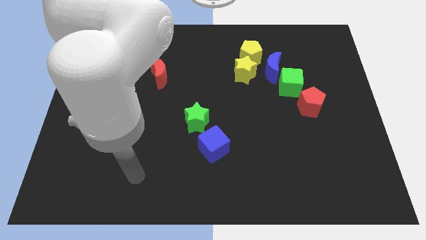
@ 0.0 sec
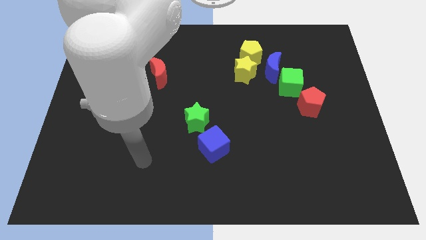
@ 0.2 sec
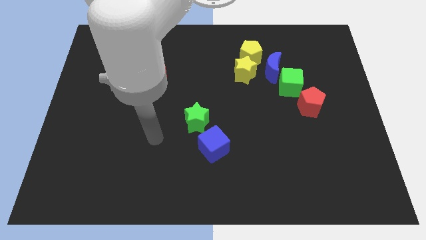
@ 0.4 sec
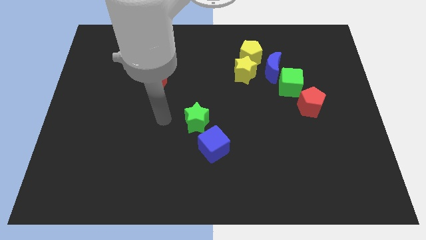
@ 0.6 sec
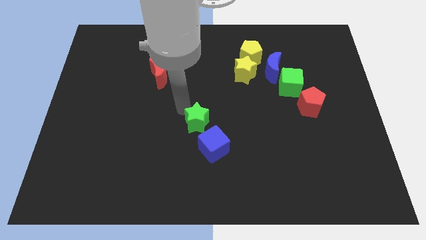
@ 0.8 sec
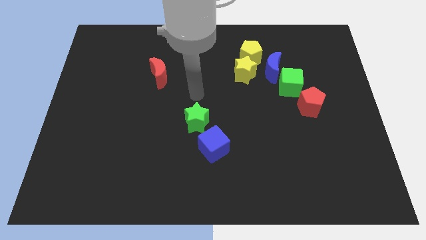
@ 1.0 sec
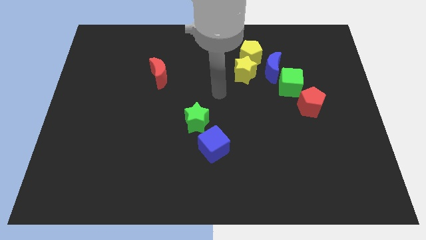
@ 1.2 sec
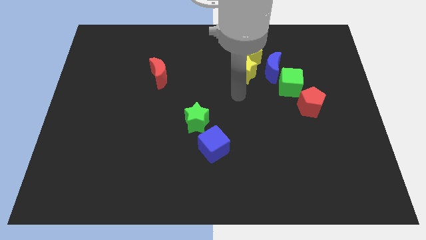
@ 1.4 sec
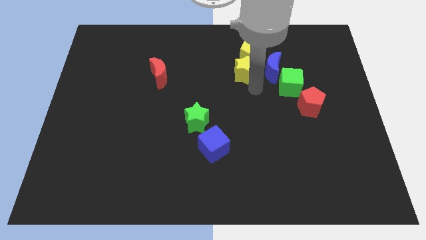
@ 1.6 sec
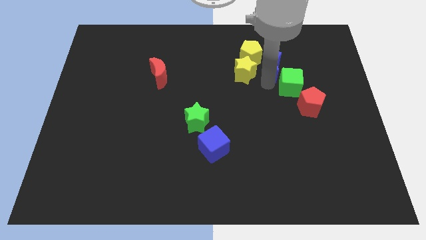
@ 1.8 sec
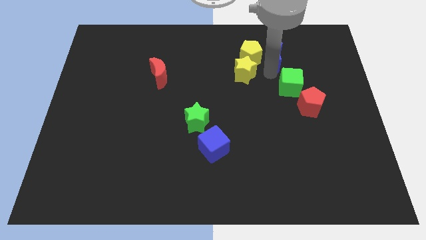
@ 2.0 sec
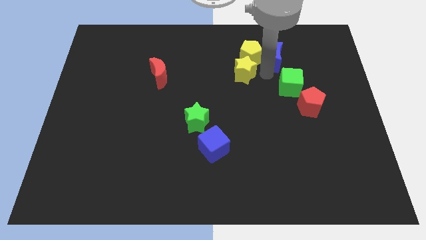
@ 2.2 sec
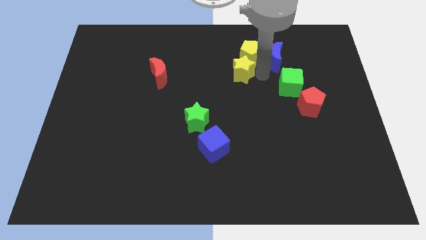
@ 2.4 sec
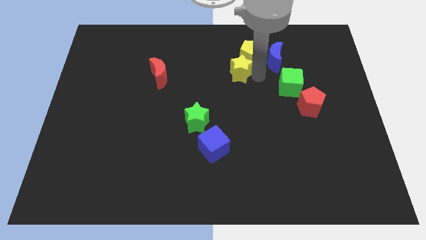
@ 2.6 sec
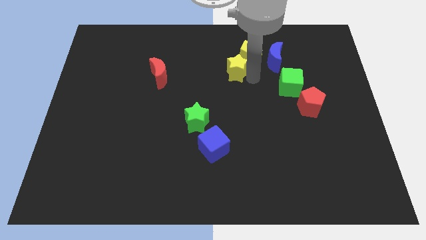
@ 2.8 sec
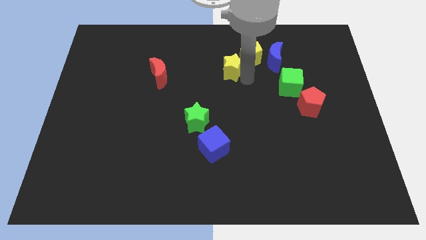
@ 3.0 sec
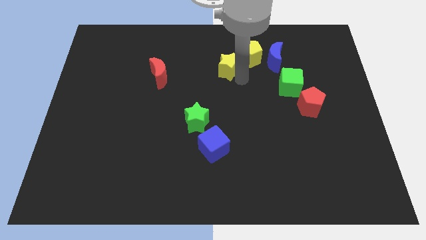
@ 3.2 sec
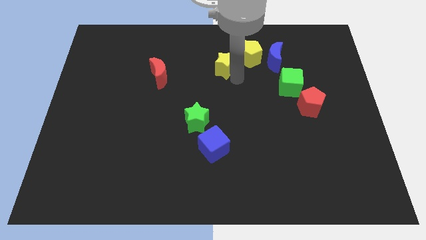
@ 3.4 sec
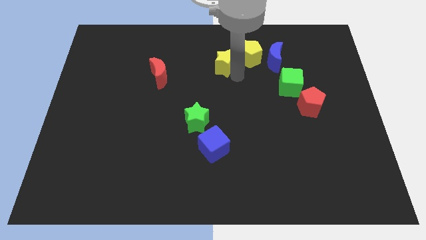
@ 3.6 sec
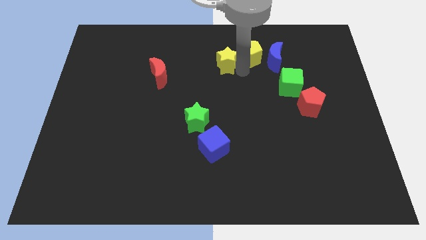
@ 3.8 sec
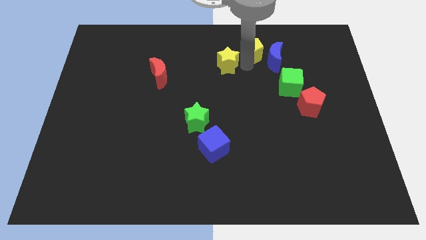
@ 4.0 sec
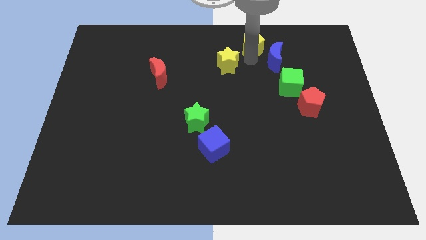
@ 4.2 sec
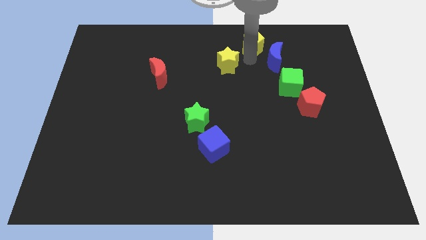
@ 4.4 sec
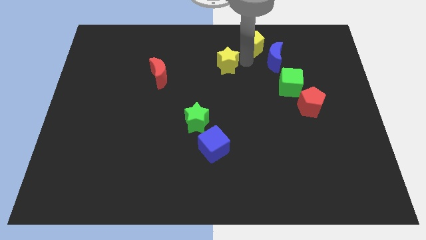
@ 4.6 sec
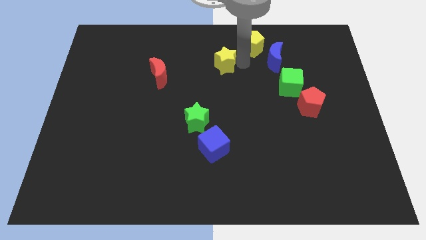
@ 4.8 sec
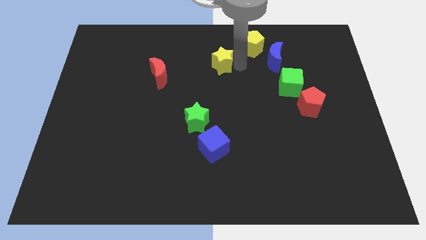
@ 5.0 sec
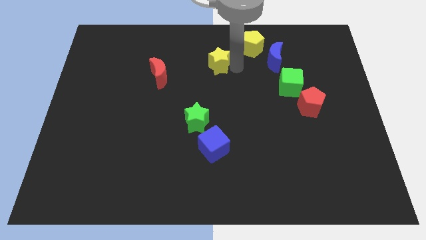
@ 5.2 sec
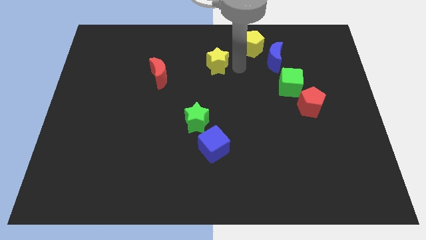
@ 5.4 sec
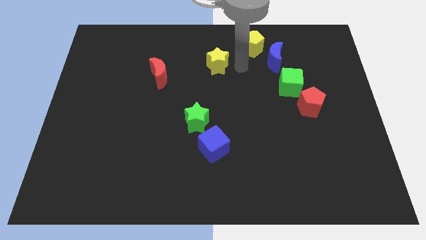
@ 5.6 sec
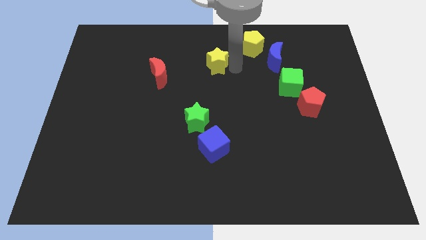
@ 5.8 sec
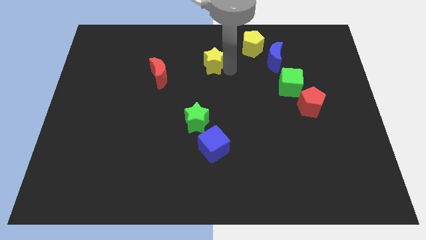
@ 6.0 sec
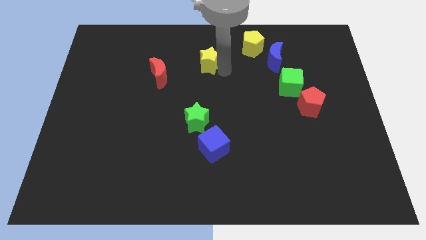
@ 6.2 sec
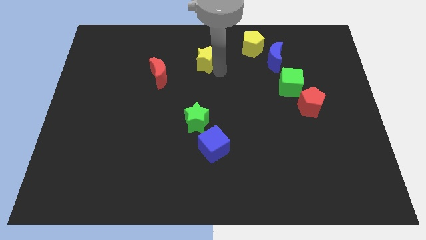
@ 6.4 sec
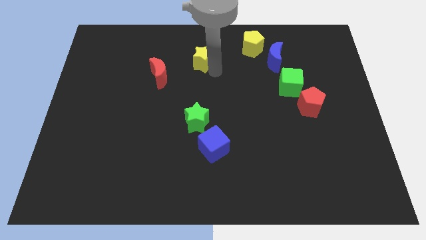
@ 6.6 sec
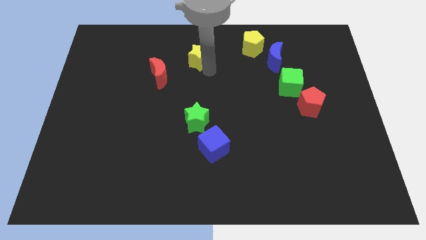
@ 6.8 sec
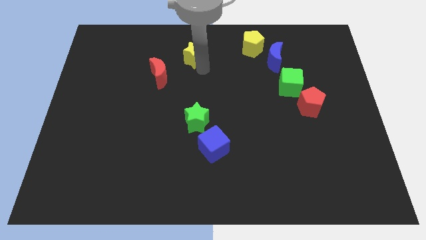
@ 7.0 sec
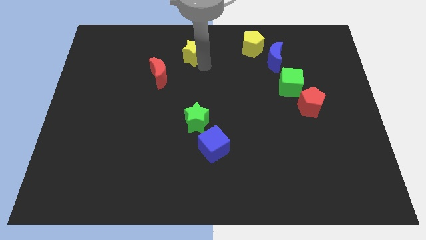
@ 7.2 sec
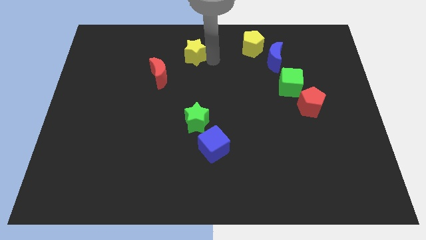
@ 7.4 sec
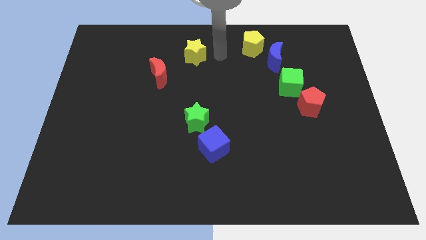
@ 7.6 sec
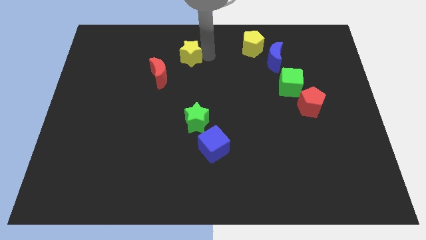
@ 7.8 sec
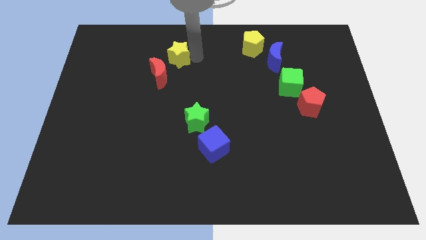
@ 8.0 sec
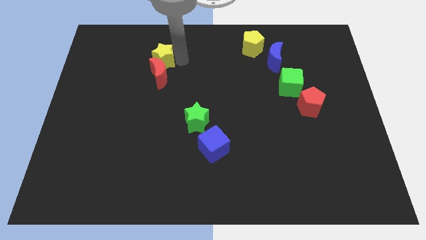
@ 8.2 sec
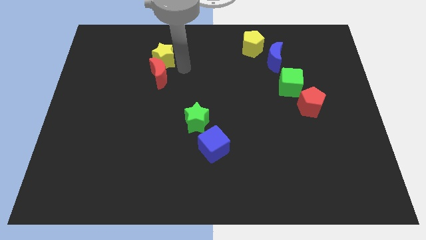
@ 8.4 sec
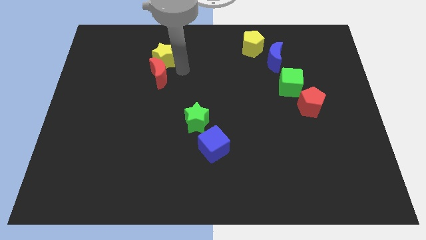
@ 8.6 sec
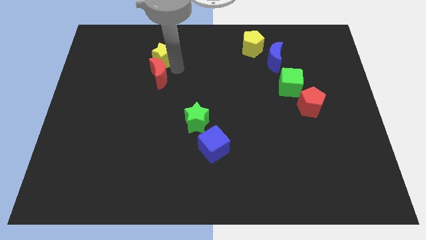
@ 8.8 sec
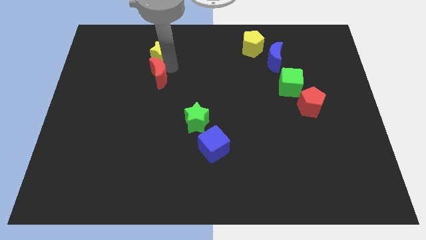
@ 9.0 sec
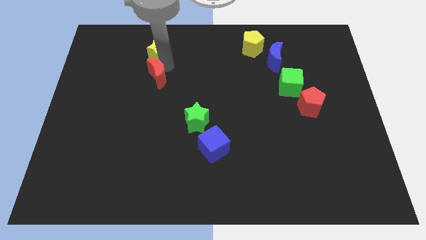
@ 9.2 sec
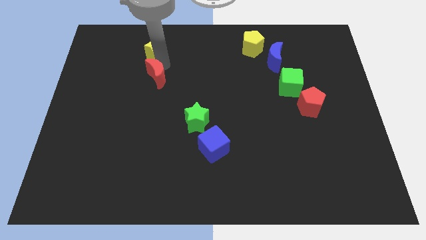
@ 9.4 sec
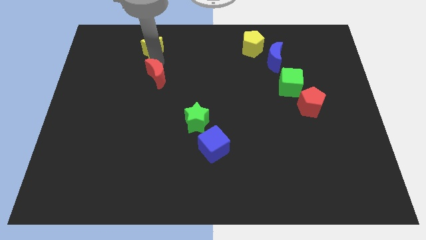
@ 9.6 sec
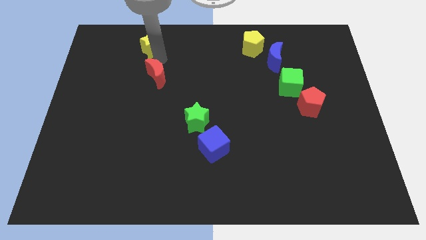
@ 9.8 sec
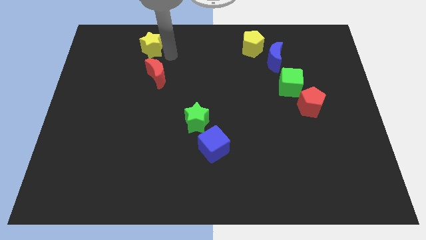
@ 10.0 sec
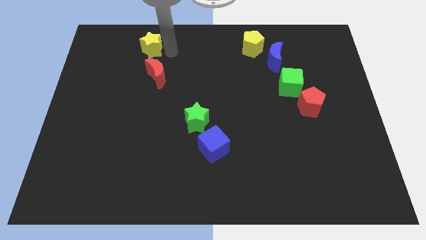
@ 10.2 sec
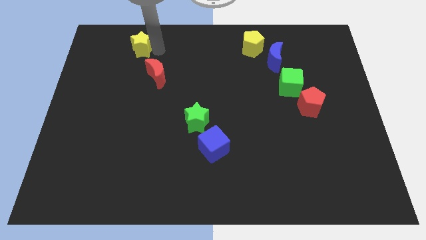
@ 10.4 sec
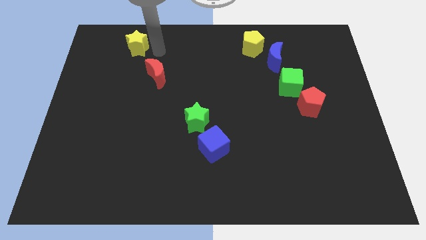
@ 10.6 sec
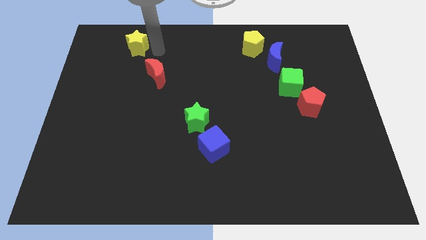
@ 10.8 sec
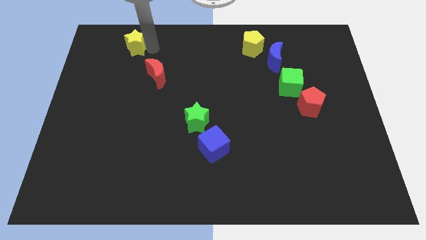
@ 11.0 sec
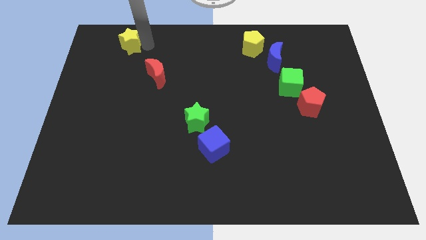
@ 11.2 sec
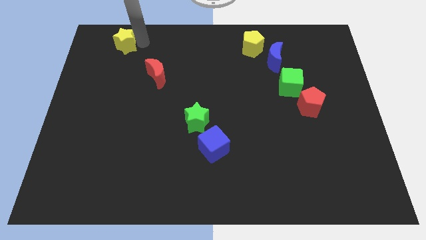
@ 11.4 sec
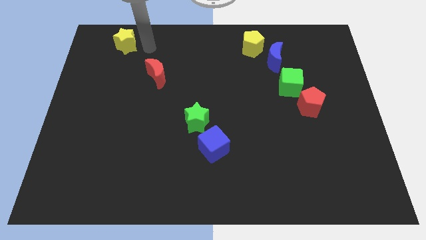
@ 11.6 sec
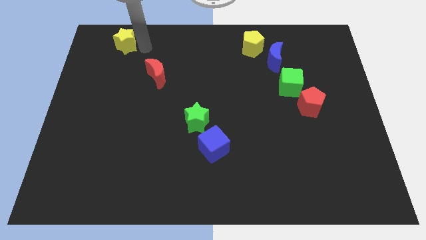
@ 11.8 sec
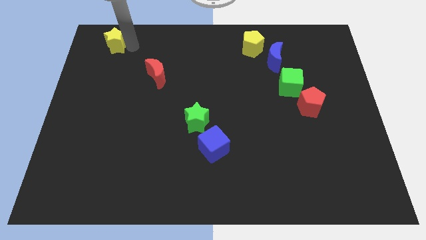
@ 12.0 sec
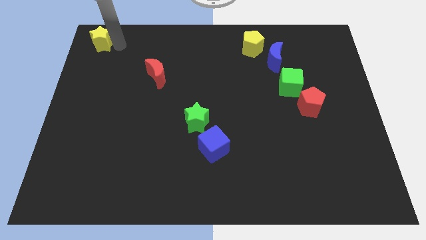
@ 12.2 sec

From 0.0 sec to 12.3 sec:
move the yellow star to the upper left corner
